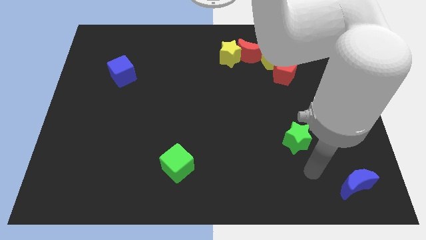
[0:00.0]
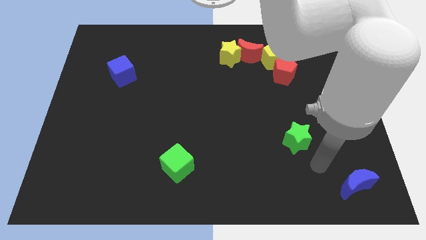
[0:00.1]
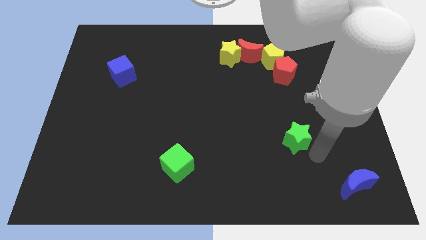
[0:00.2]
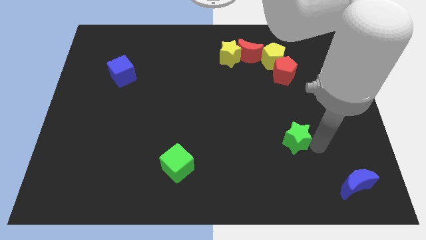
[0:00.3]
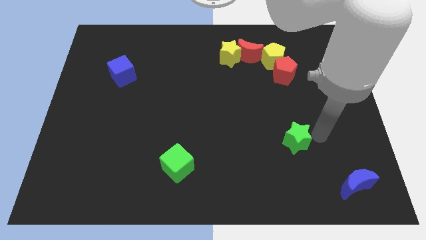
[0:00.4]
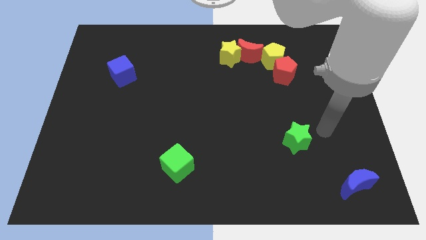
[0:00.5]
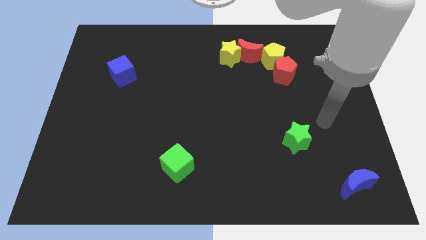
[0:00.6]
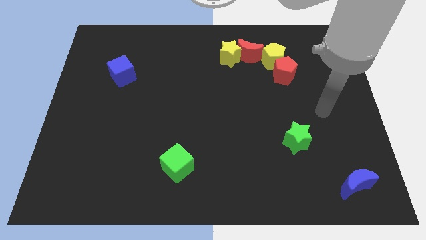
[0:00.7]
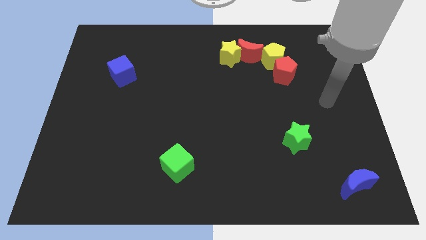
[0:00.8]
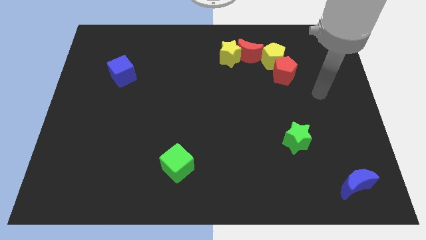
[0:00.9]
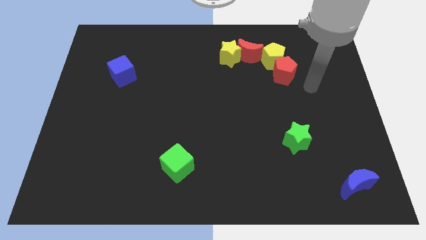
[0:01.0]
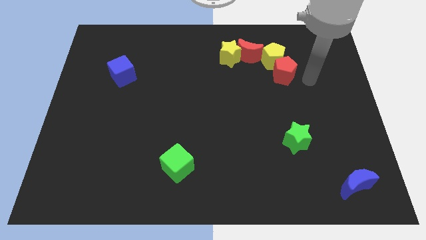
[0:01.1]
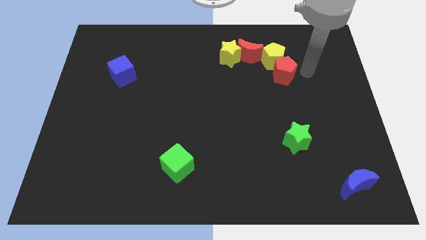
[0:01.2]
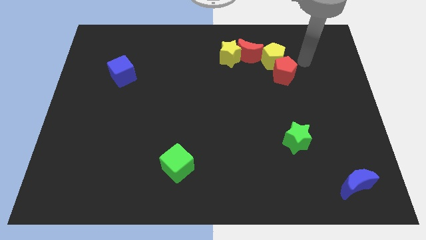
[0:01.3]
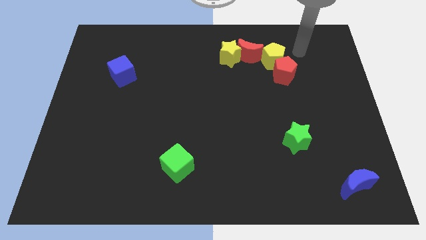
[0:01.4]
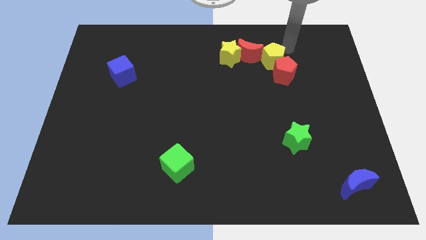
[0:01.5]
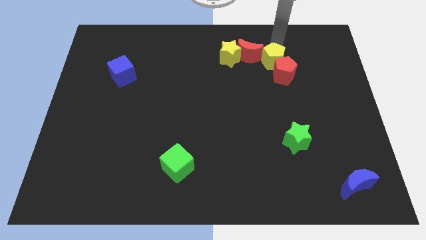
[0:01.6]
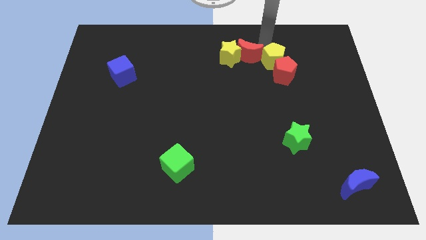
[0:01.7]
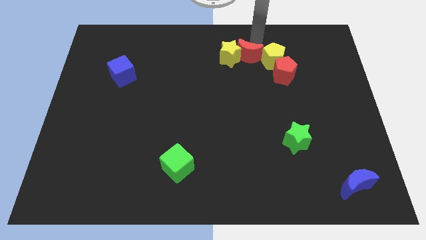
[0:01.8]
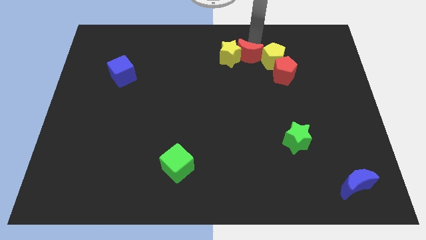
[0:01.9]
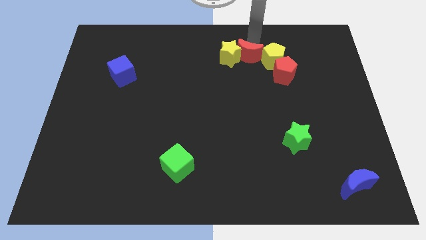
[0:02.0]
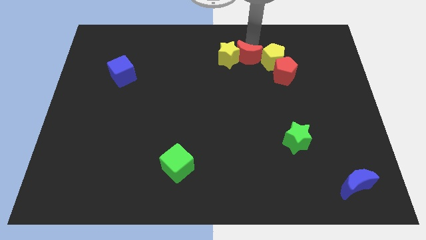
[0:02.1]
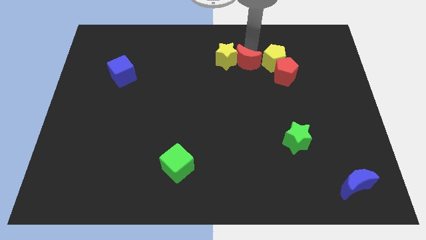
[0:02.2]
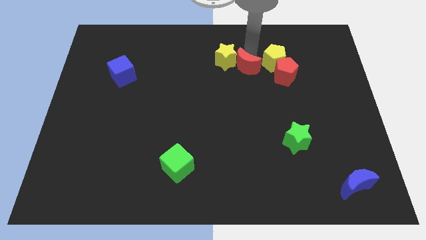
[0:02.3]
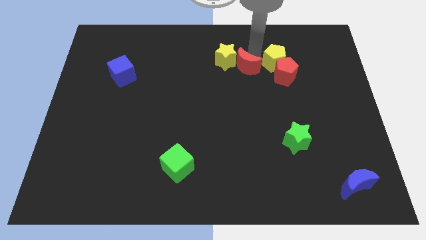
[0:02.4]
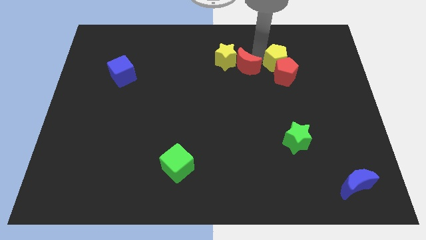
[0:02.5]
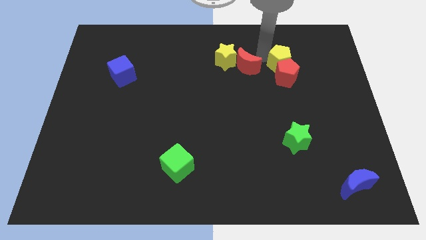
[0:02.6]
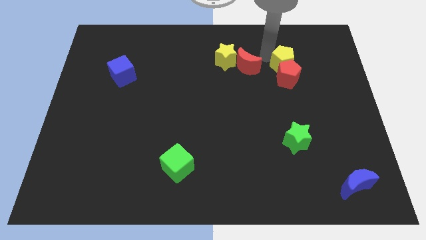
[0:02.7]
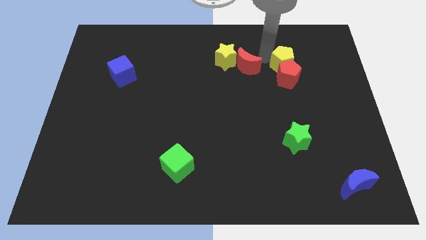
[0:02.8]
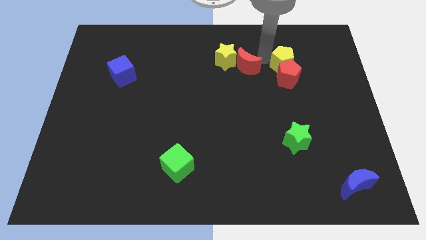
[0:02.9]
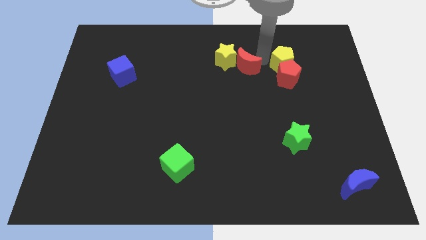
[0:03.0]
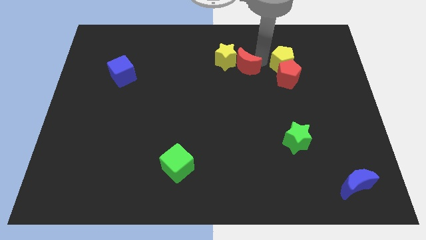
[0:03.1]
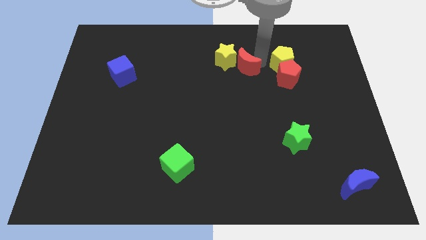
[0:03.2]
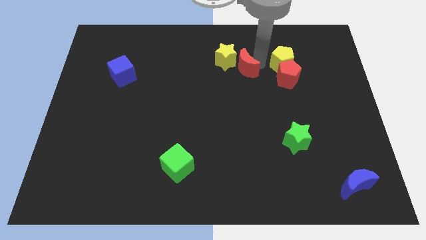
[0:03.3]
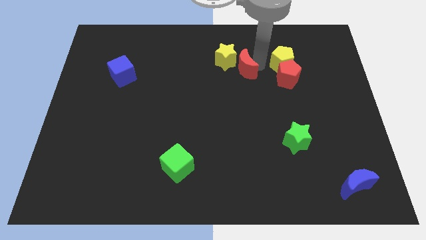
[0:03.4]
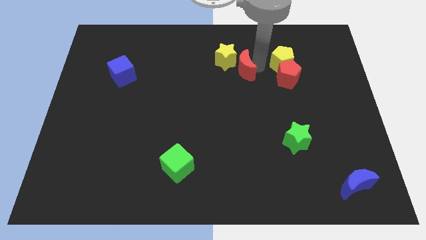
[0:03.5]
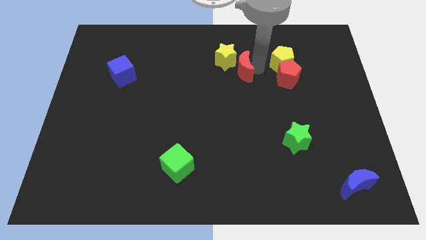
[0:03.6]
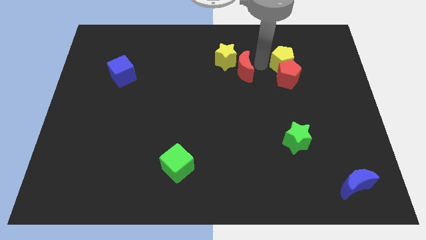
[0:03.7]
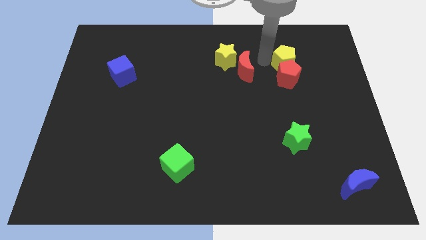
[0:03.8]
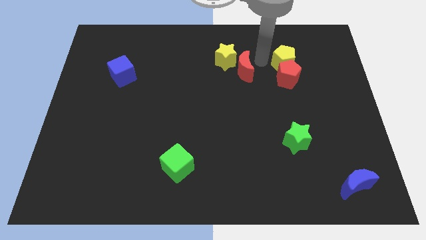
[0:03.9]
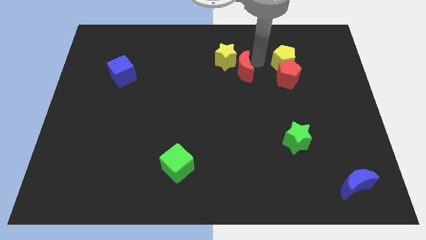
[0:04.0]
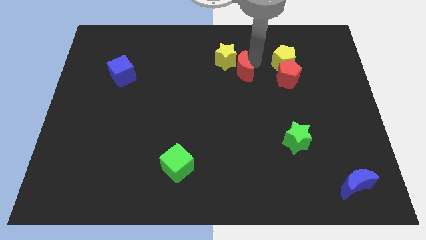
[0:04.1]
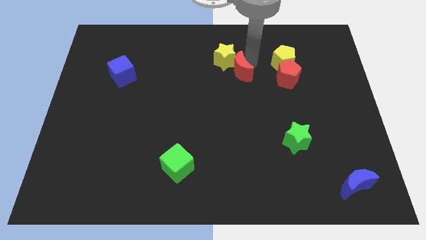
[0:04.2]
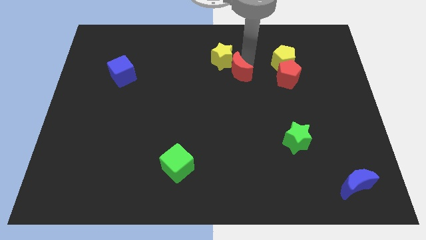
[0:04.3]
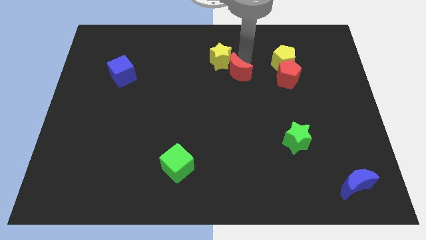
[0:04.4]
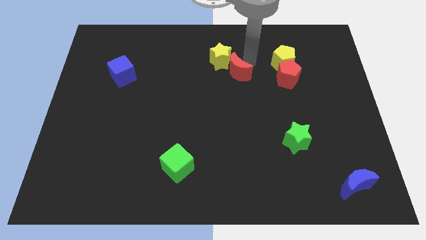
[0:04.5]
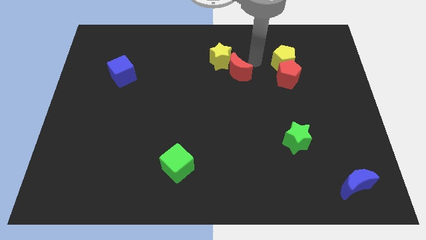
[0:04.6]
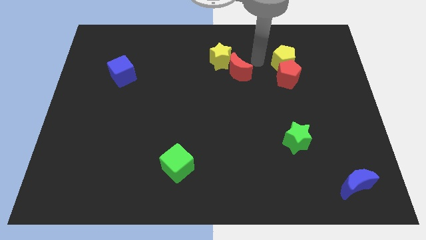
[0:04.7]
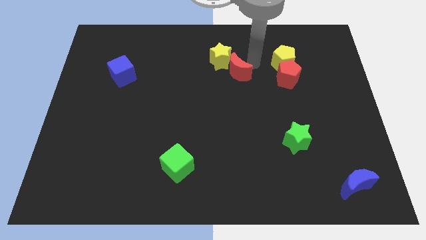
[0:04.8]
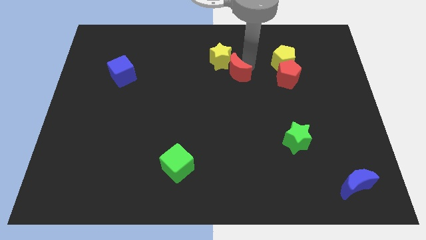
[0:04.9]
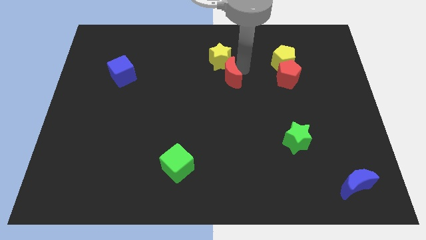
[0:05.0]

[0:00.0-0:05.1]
move the red moon a little bit diagonally down and to the left

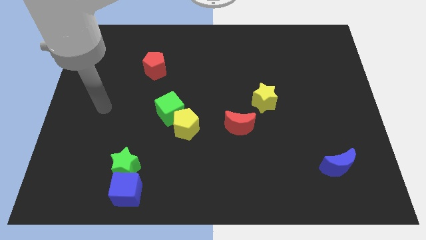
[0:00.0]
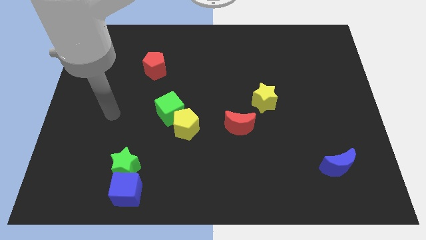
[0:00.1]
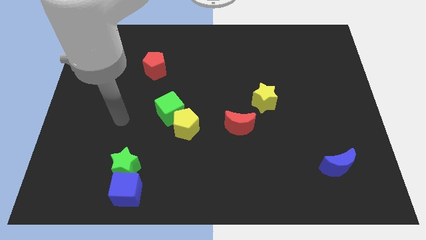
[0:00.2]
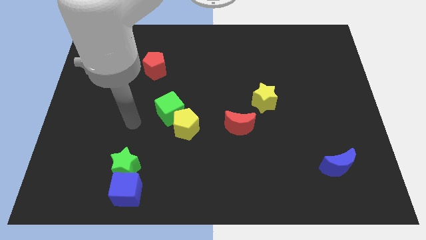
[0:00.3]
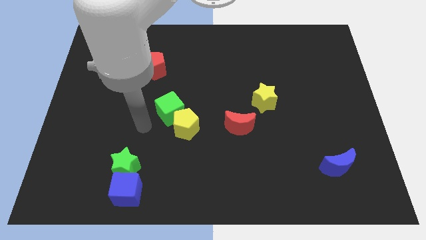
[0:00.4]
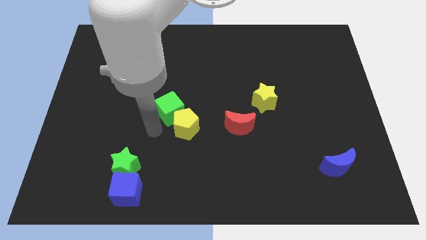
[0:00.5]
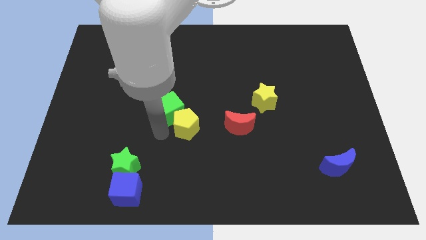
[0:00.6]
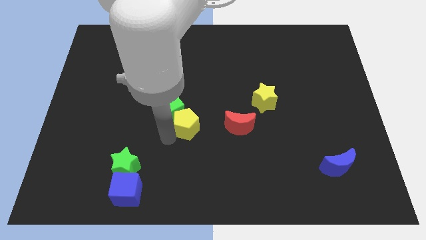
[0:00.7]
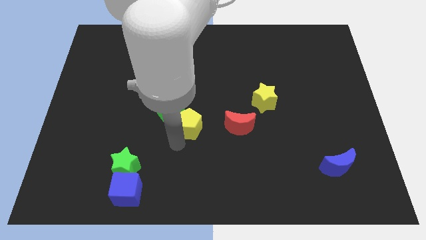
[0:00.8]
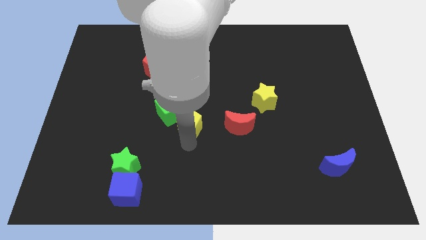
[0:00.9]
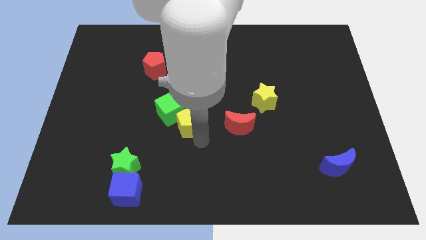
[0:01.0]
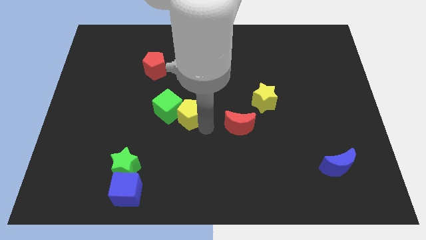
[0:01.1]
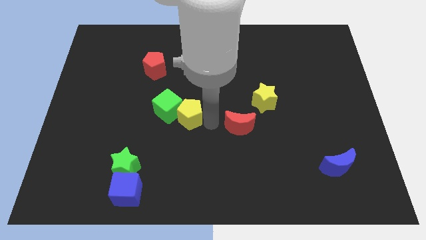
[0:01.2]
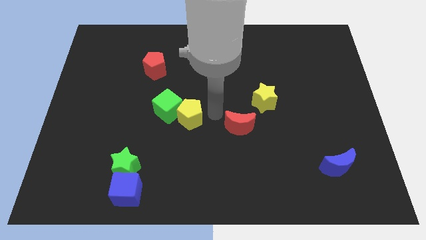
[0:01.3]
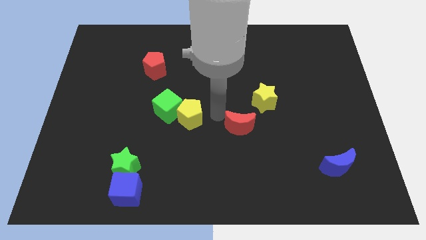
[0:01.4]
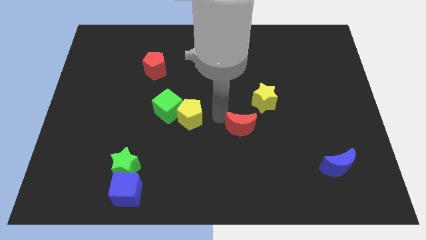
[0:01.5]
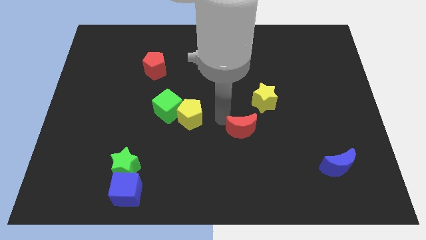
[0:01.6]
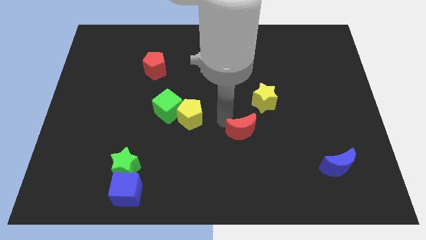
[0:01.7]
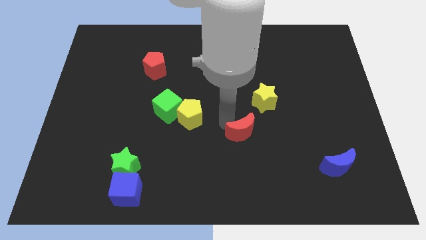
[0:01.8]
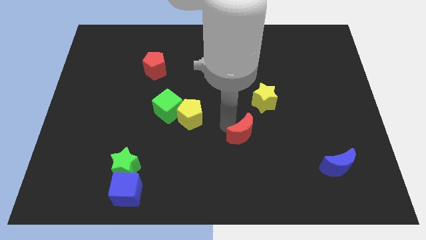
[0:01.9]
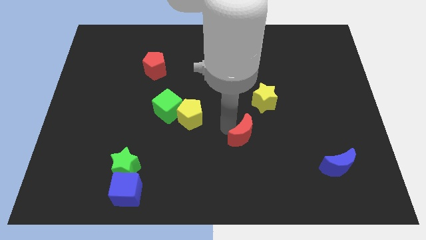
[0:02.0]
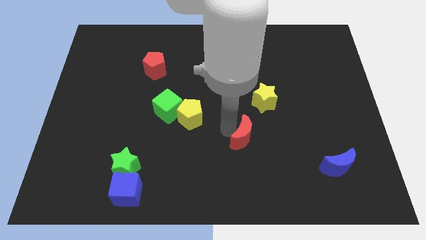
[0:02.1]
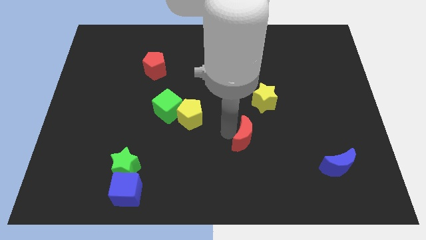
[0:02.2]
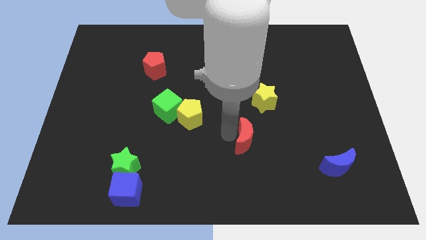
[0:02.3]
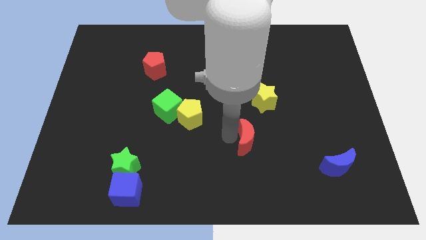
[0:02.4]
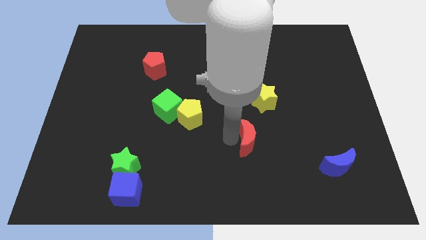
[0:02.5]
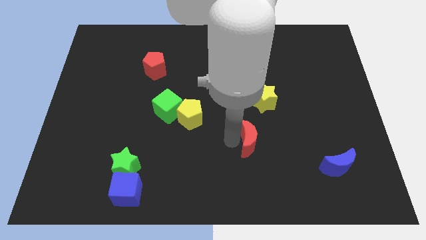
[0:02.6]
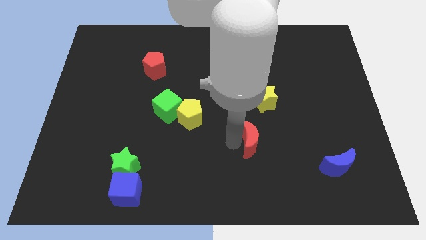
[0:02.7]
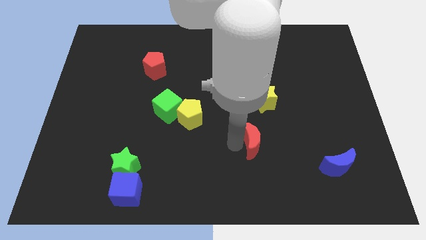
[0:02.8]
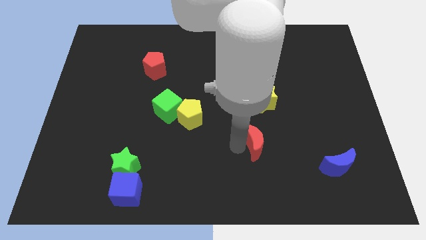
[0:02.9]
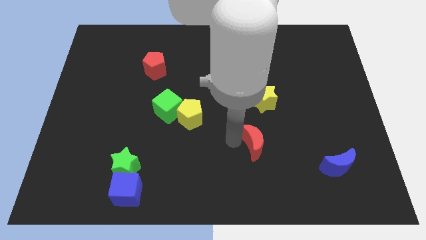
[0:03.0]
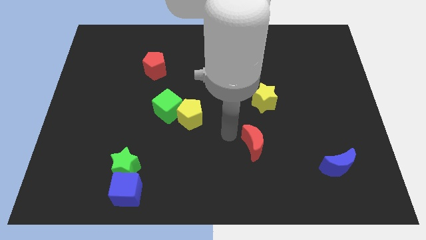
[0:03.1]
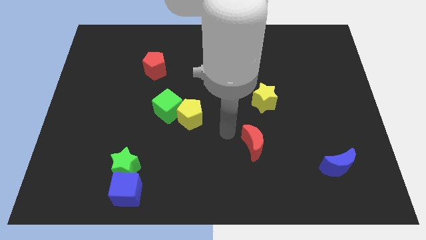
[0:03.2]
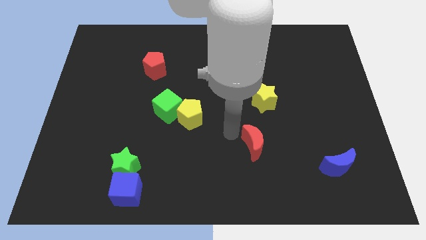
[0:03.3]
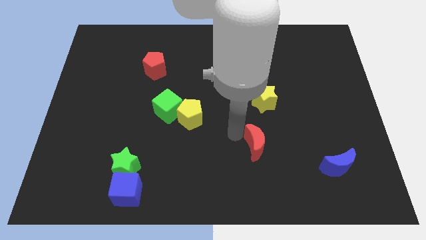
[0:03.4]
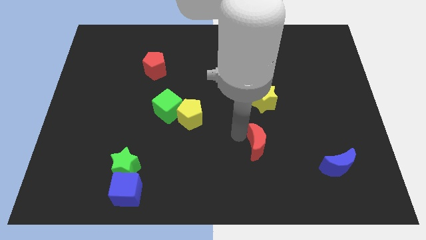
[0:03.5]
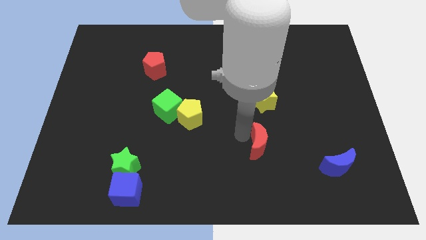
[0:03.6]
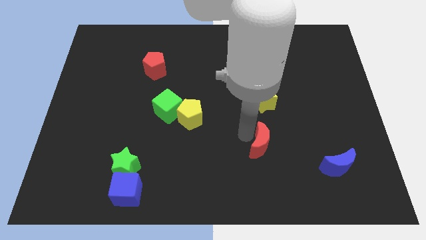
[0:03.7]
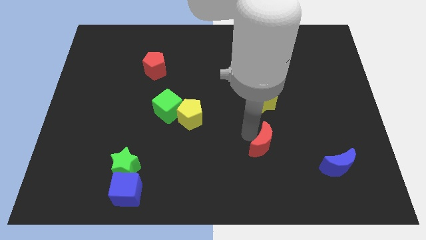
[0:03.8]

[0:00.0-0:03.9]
slightly push the red moon downwards and right
